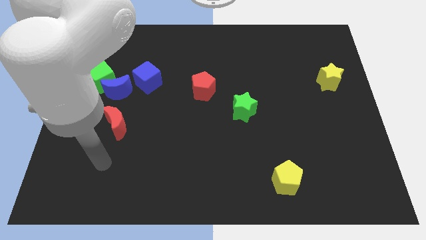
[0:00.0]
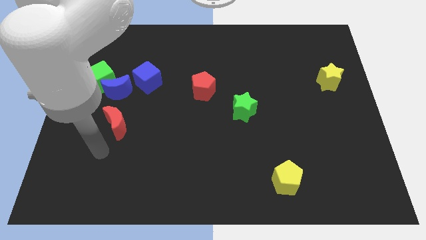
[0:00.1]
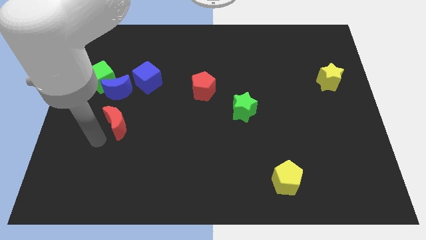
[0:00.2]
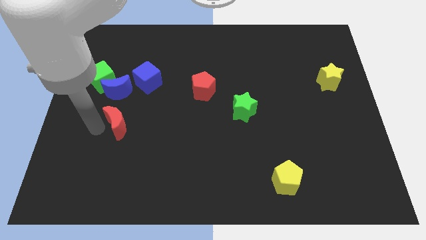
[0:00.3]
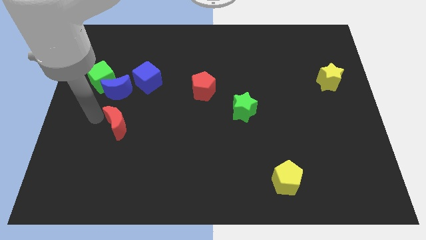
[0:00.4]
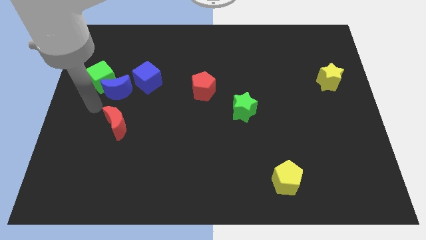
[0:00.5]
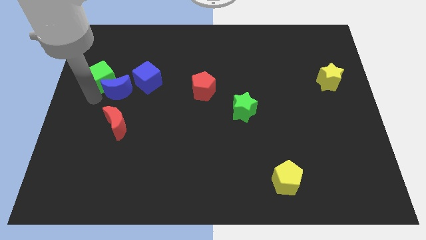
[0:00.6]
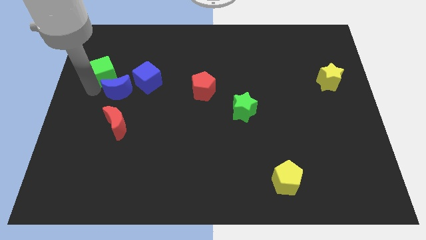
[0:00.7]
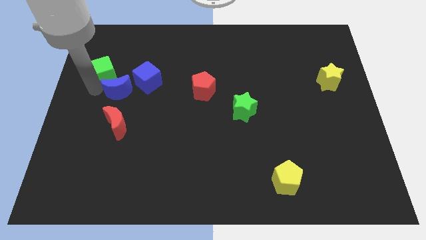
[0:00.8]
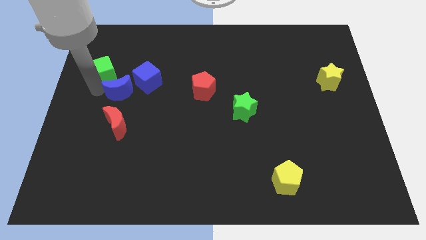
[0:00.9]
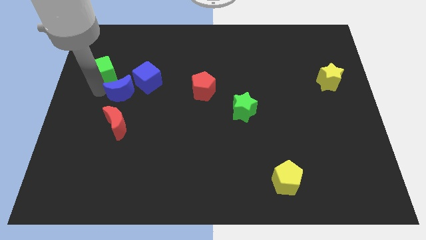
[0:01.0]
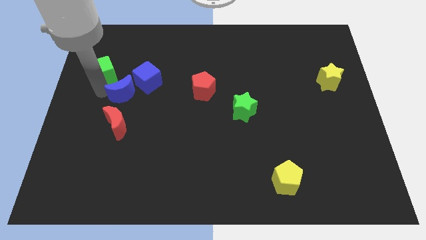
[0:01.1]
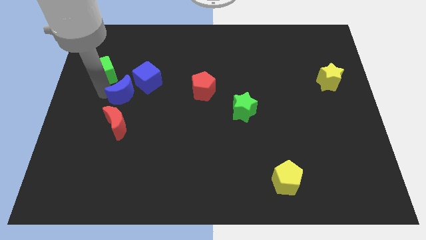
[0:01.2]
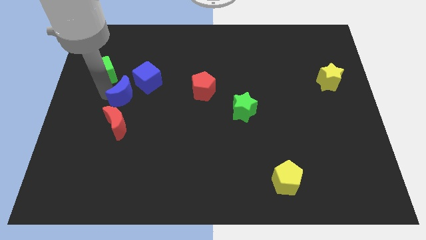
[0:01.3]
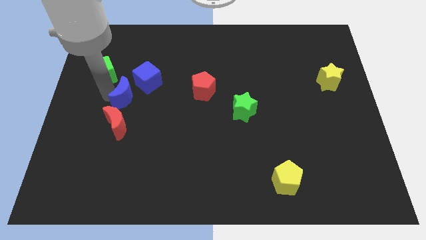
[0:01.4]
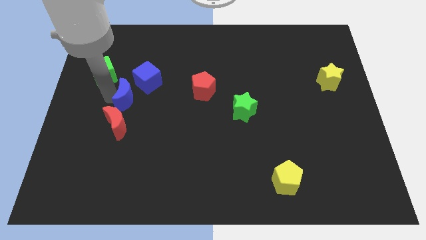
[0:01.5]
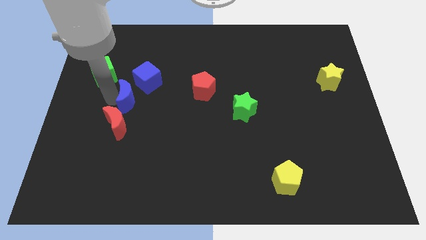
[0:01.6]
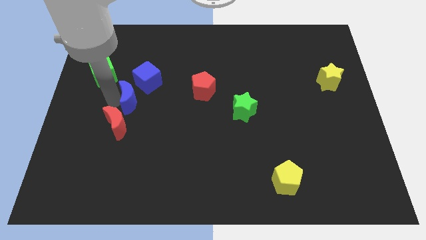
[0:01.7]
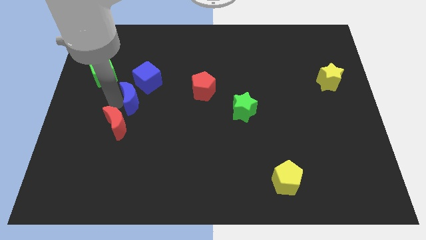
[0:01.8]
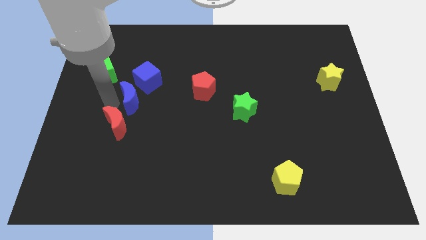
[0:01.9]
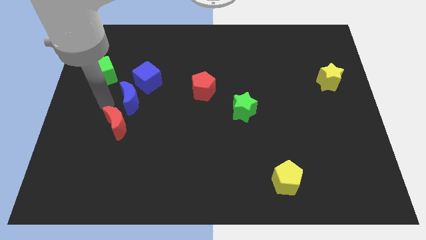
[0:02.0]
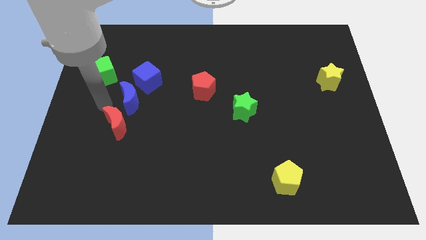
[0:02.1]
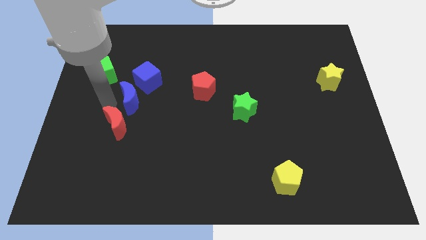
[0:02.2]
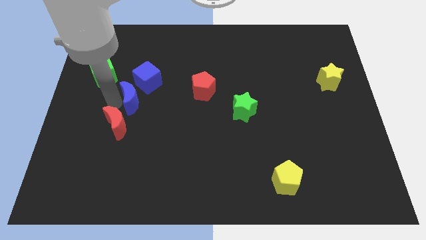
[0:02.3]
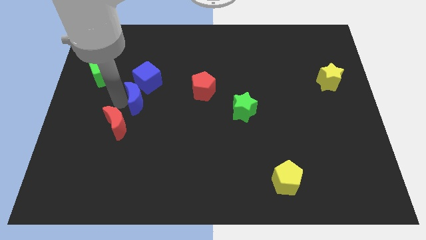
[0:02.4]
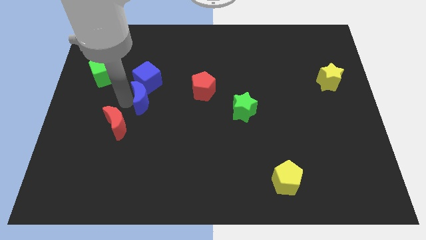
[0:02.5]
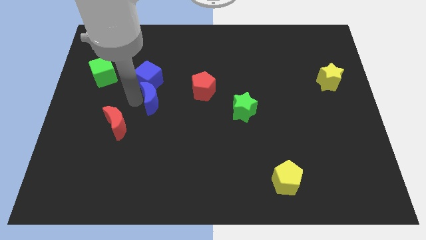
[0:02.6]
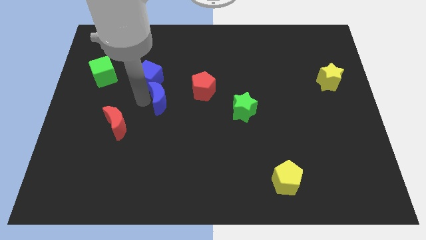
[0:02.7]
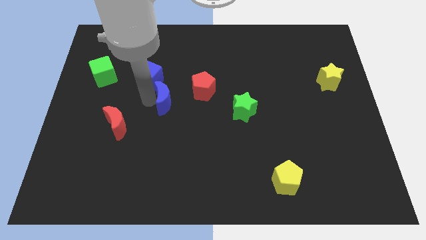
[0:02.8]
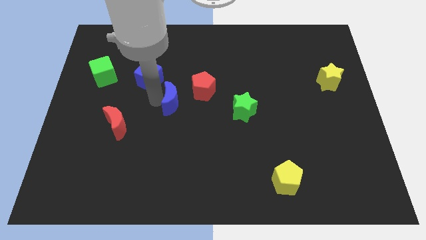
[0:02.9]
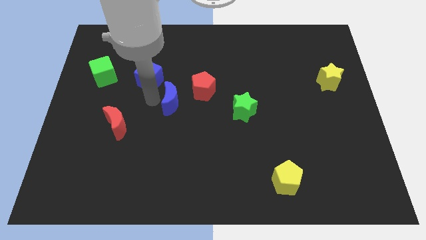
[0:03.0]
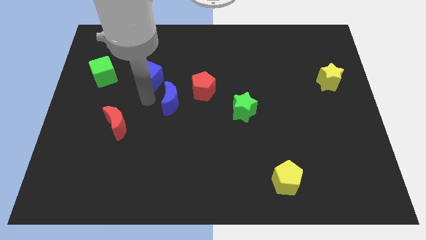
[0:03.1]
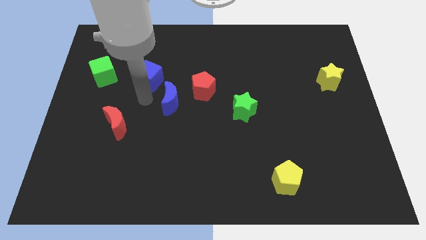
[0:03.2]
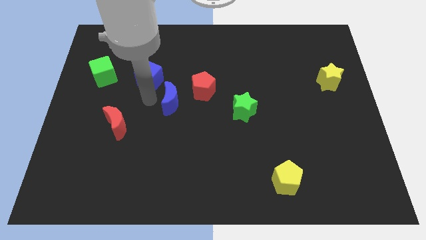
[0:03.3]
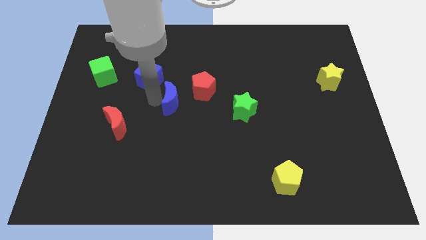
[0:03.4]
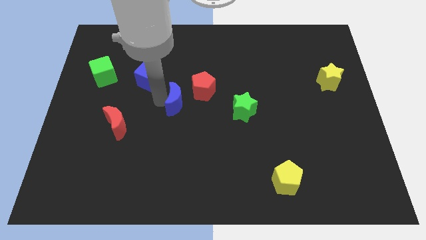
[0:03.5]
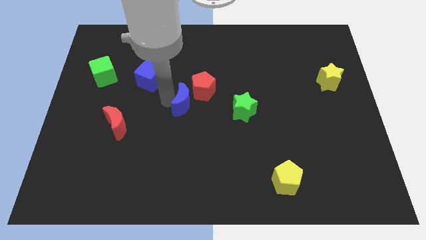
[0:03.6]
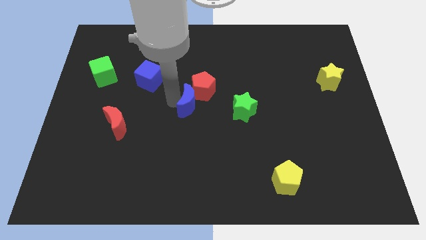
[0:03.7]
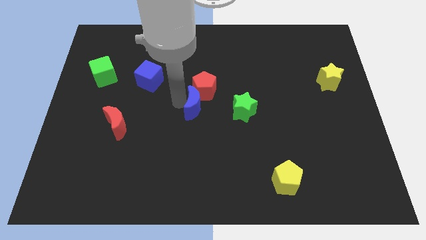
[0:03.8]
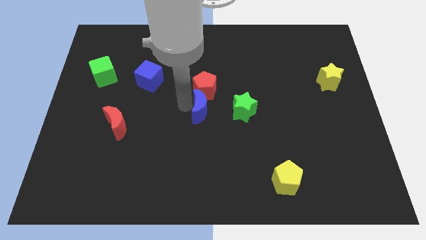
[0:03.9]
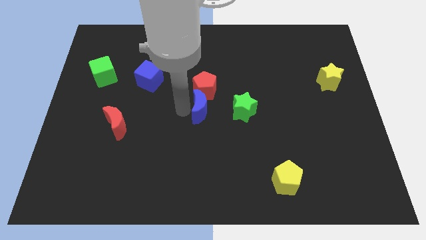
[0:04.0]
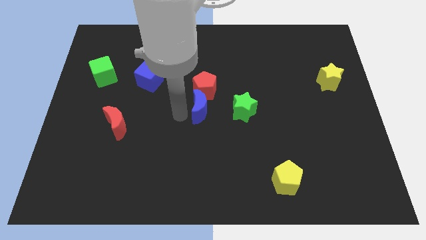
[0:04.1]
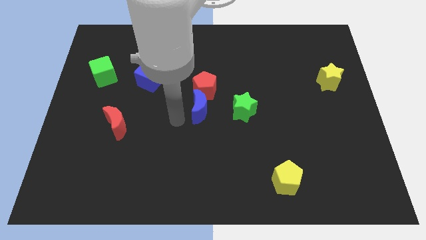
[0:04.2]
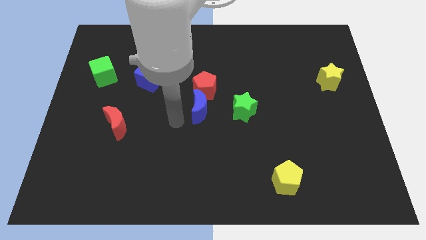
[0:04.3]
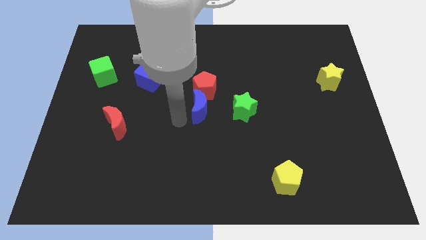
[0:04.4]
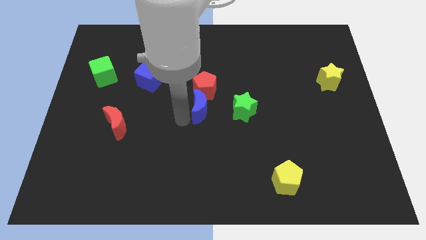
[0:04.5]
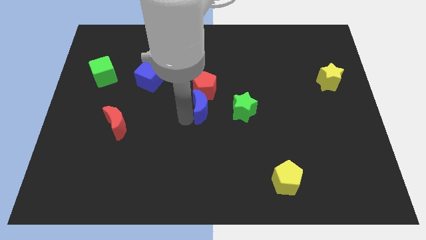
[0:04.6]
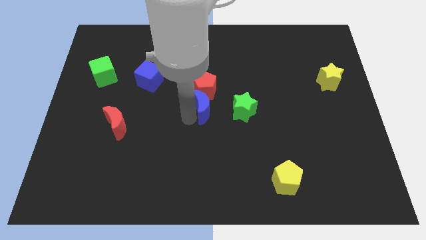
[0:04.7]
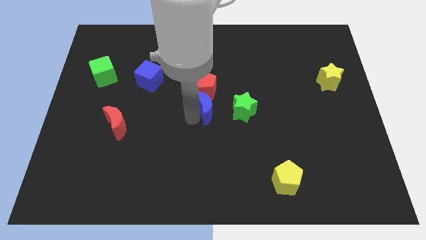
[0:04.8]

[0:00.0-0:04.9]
push the blue moon to the right

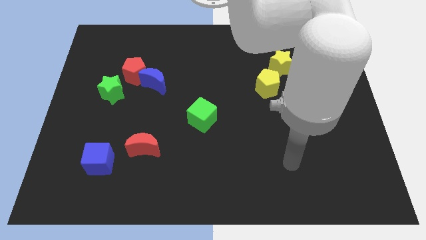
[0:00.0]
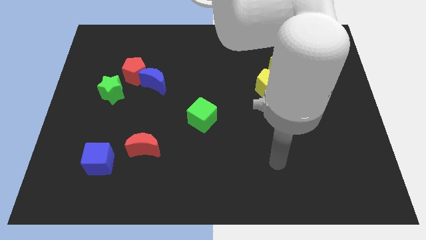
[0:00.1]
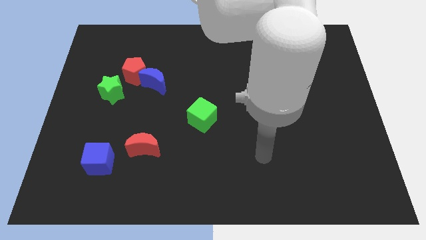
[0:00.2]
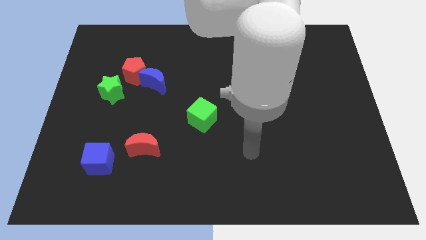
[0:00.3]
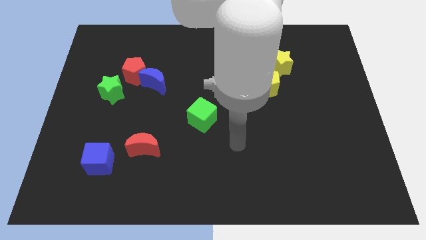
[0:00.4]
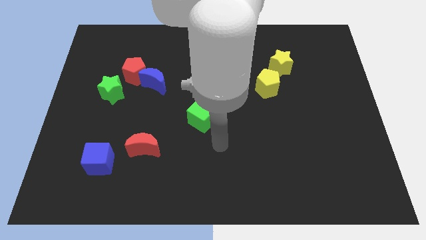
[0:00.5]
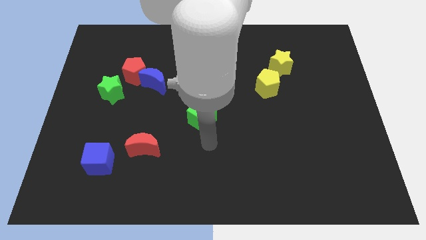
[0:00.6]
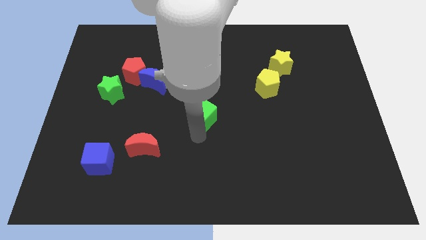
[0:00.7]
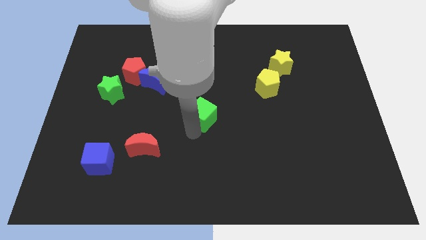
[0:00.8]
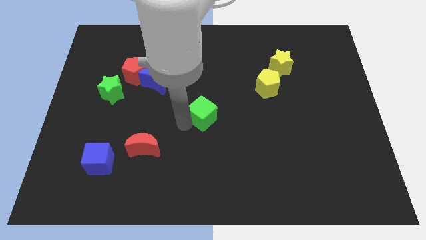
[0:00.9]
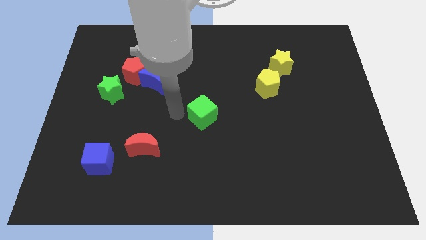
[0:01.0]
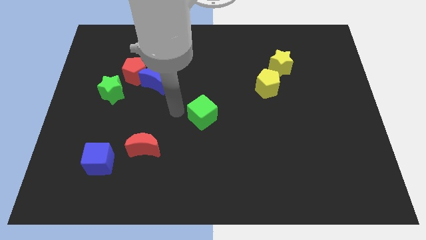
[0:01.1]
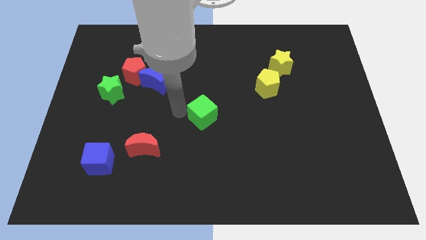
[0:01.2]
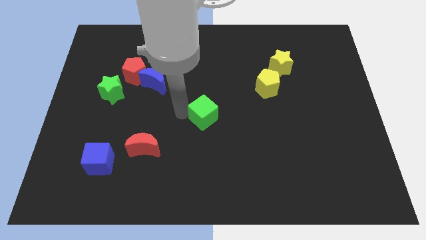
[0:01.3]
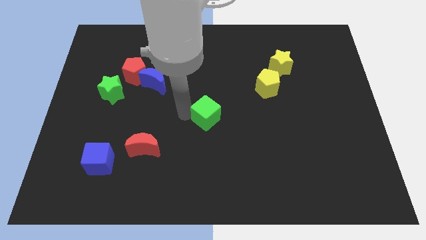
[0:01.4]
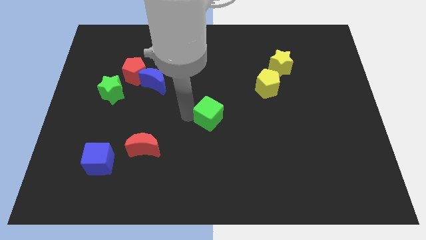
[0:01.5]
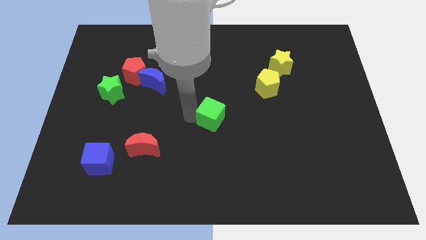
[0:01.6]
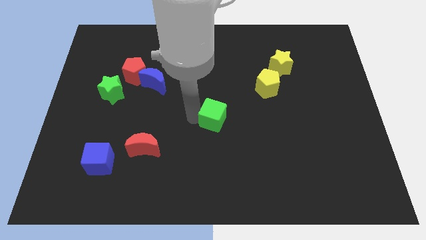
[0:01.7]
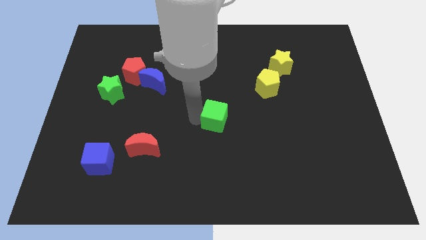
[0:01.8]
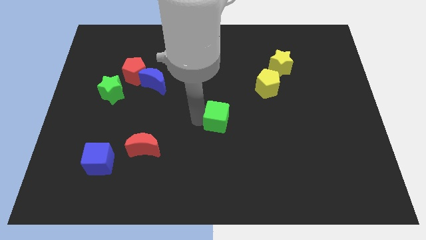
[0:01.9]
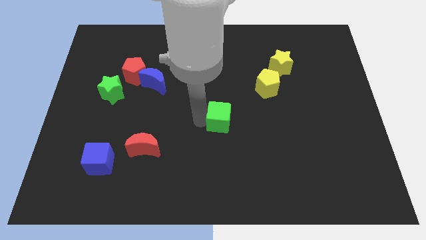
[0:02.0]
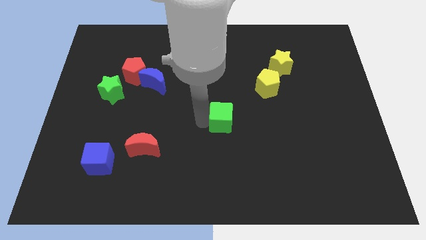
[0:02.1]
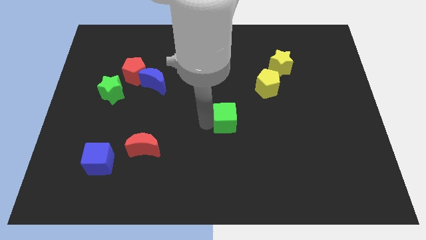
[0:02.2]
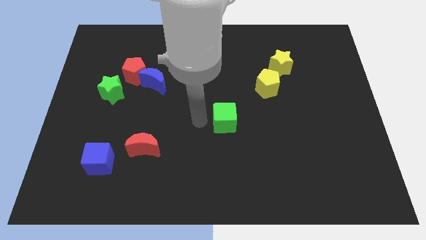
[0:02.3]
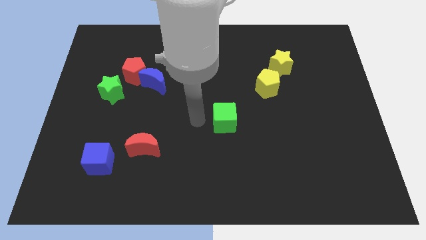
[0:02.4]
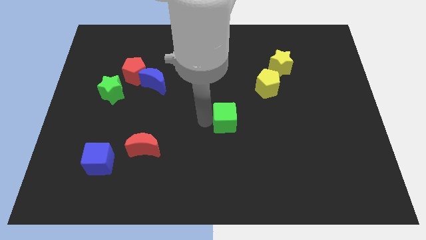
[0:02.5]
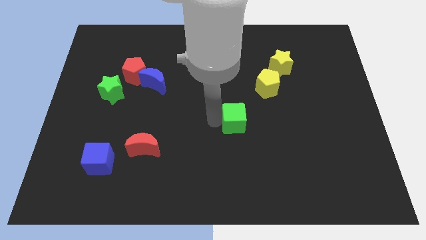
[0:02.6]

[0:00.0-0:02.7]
slightly push the green cube to the right

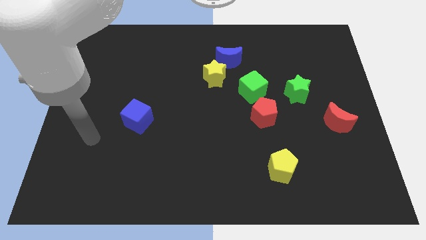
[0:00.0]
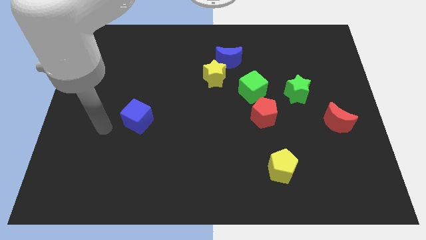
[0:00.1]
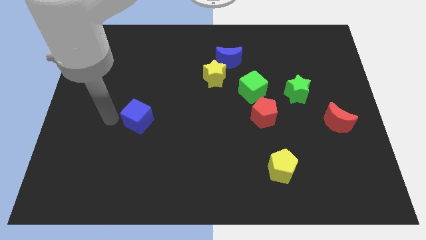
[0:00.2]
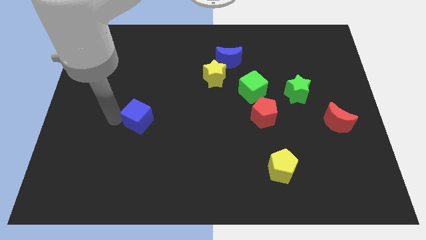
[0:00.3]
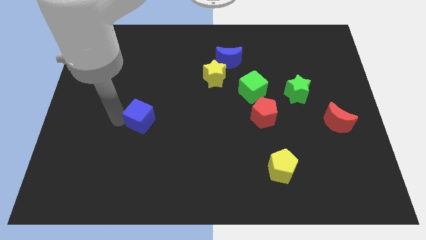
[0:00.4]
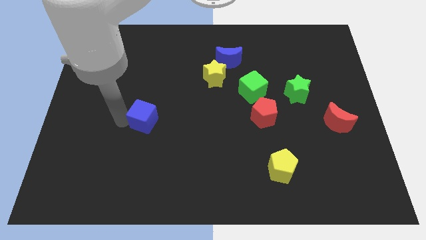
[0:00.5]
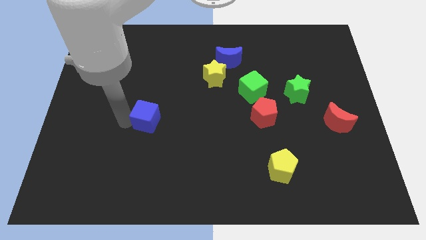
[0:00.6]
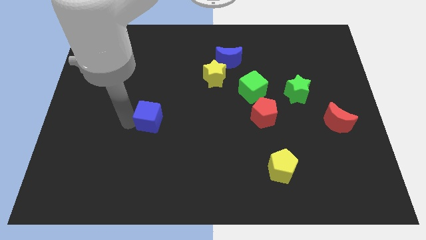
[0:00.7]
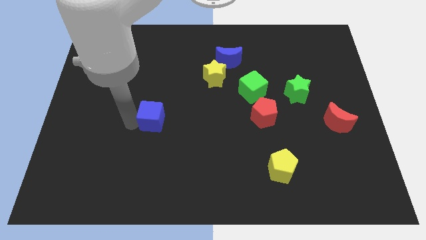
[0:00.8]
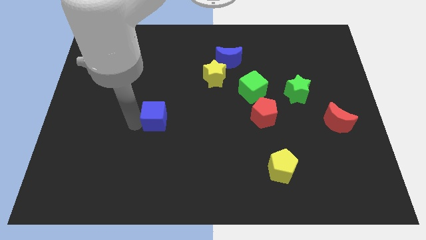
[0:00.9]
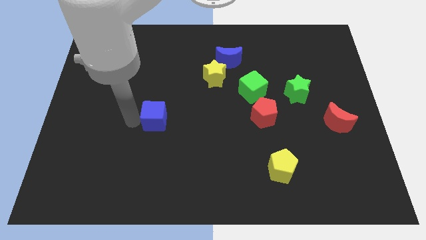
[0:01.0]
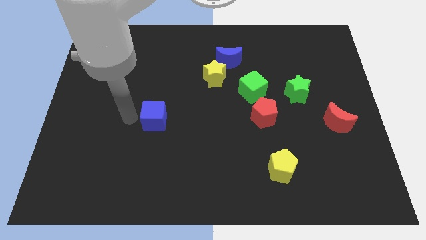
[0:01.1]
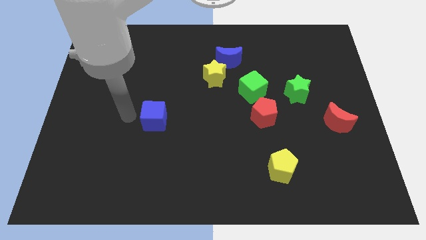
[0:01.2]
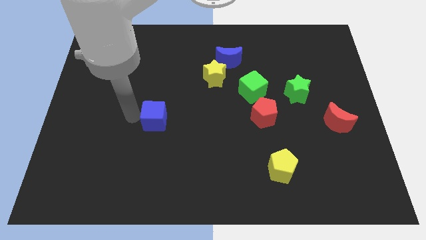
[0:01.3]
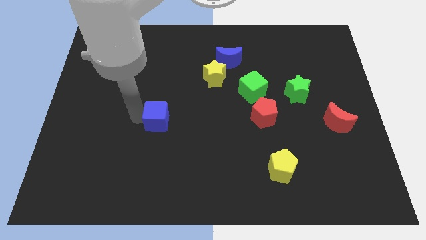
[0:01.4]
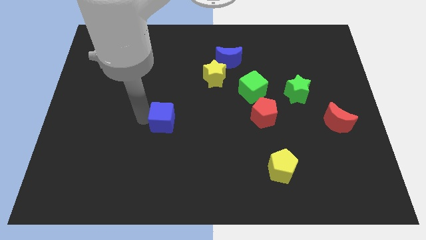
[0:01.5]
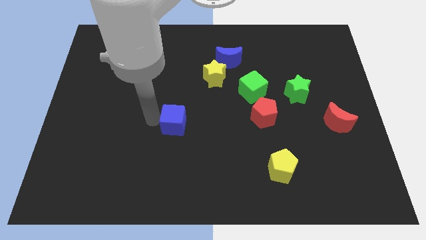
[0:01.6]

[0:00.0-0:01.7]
slightly slide the blue cube to the right
